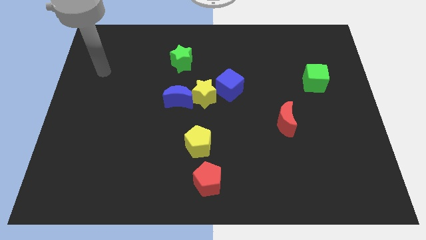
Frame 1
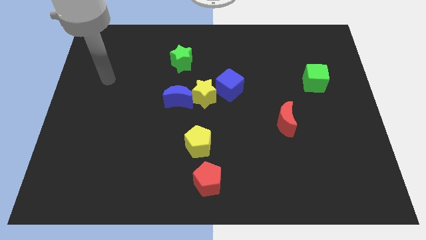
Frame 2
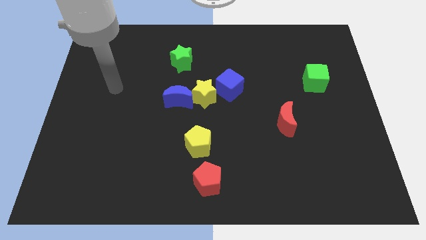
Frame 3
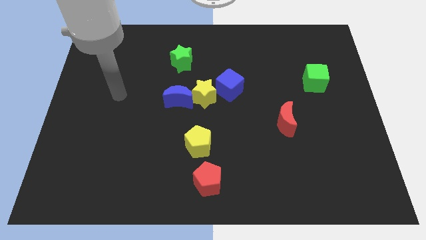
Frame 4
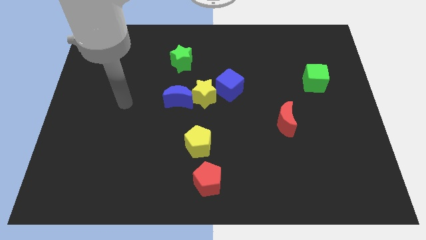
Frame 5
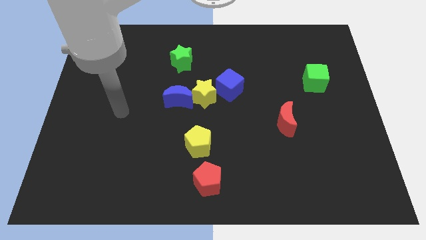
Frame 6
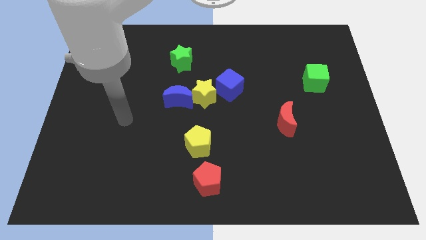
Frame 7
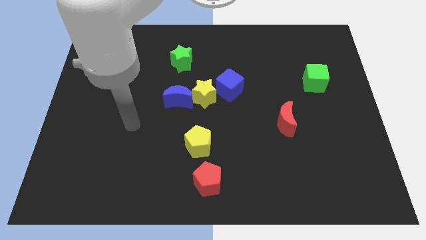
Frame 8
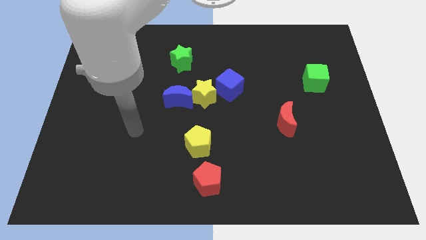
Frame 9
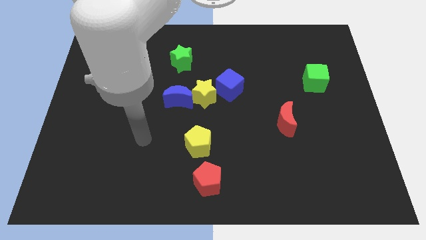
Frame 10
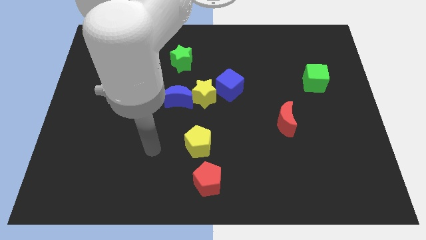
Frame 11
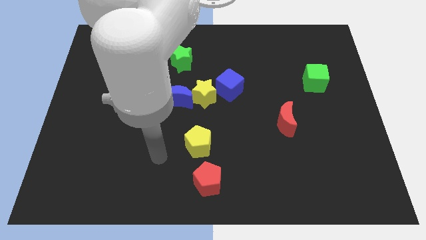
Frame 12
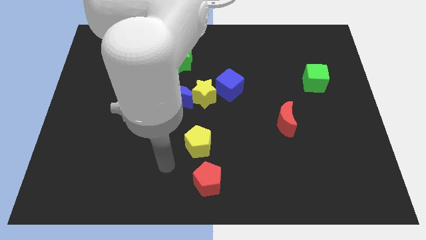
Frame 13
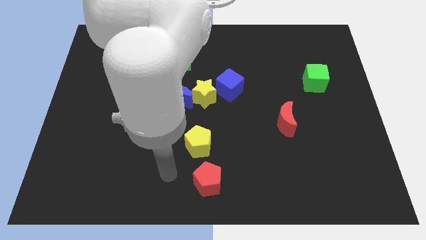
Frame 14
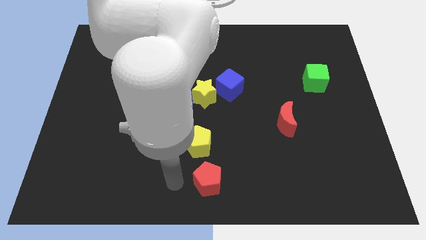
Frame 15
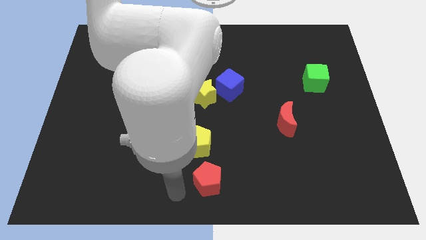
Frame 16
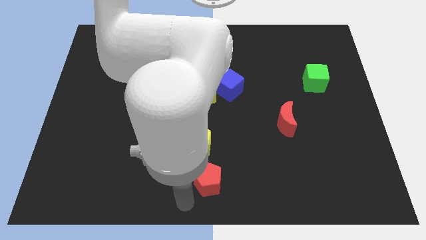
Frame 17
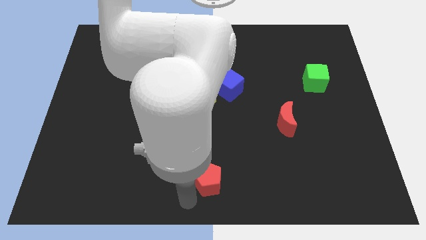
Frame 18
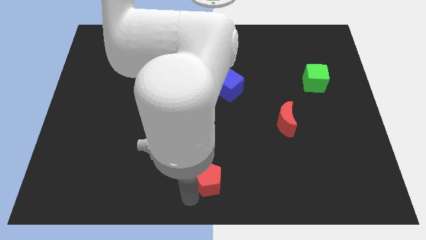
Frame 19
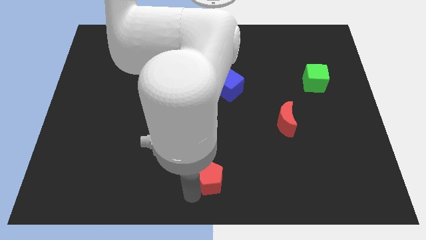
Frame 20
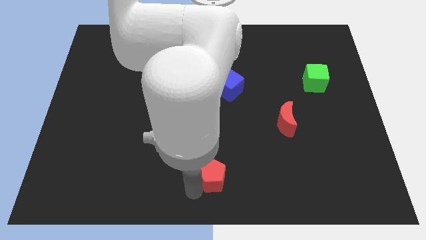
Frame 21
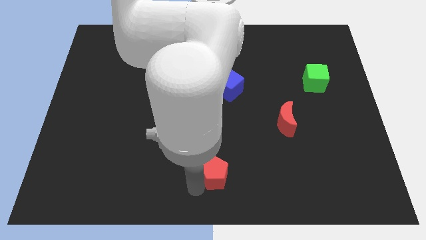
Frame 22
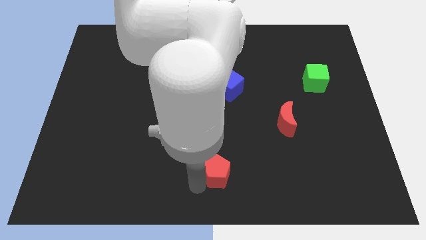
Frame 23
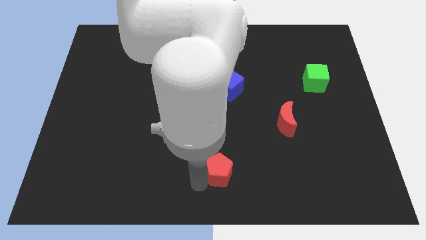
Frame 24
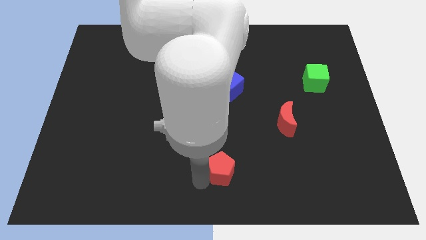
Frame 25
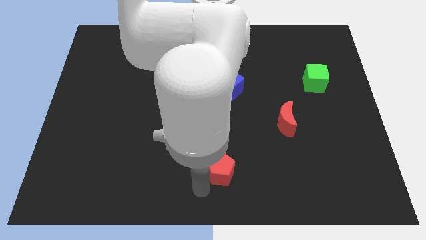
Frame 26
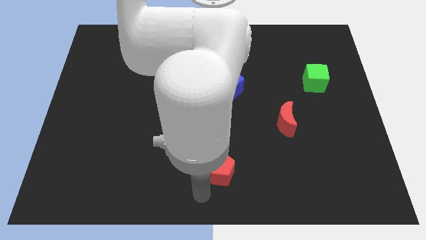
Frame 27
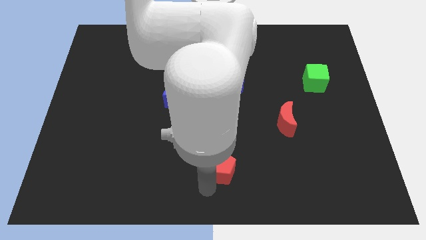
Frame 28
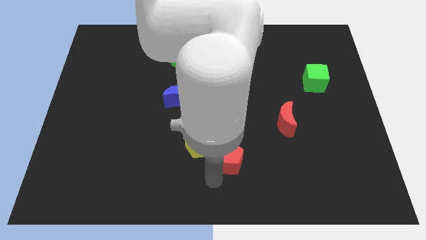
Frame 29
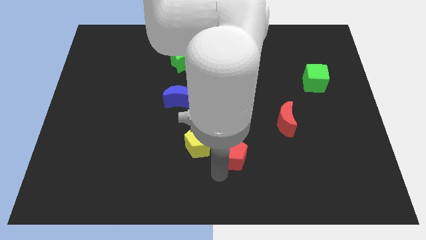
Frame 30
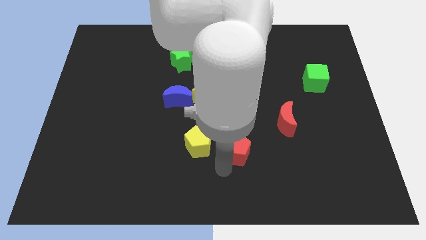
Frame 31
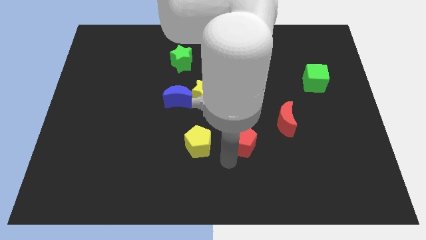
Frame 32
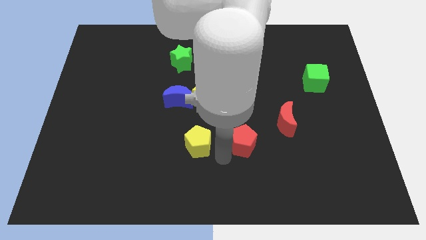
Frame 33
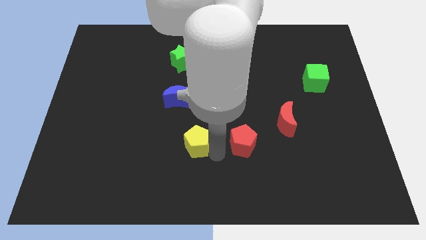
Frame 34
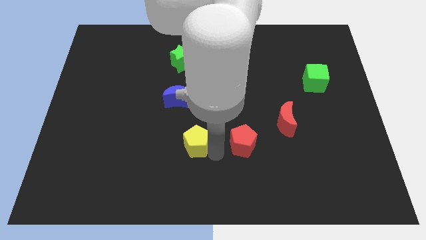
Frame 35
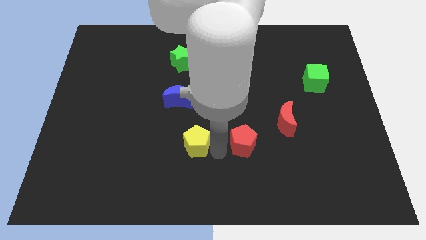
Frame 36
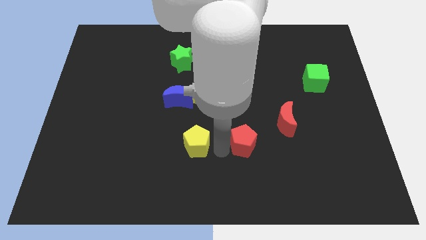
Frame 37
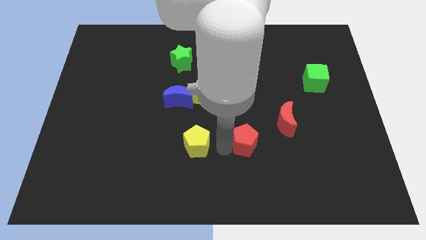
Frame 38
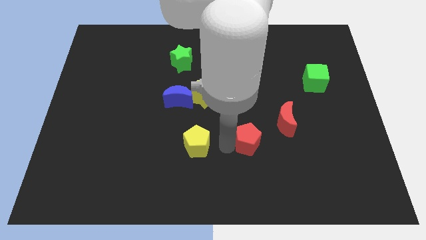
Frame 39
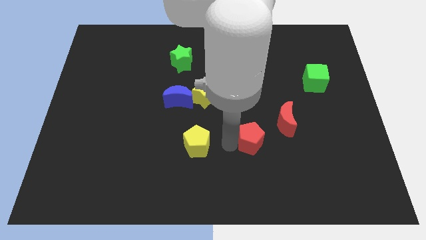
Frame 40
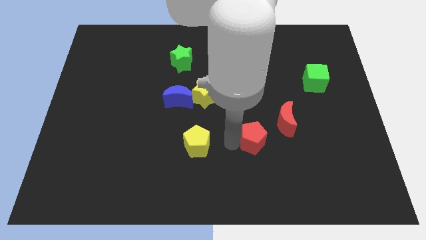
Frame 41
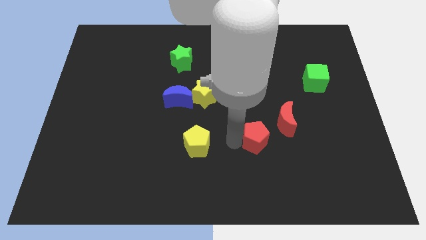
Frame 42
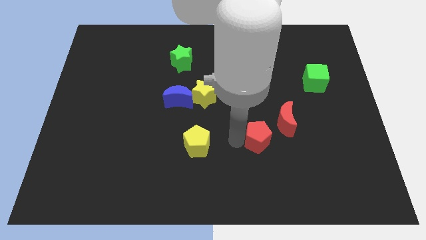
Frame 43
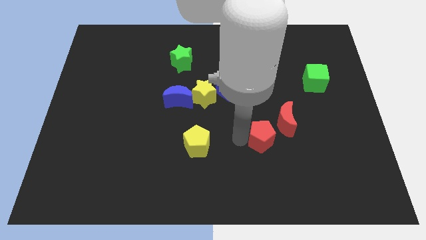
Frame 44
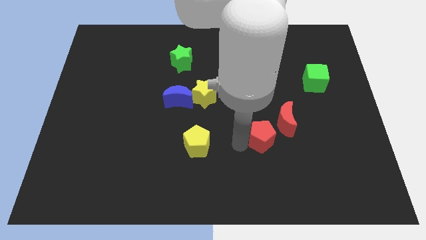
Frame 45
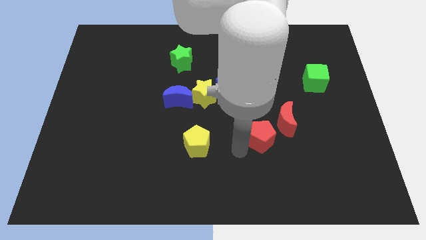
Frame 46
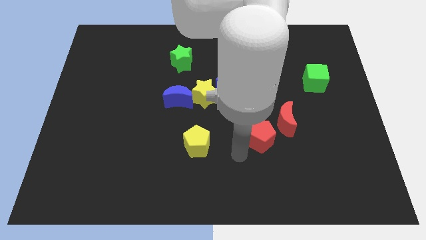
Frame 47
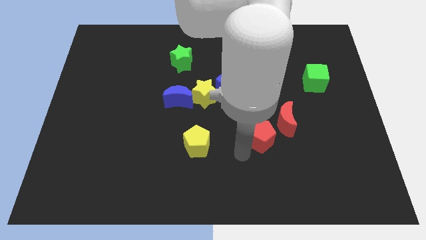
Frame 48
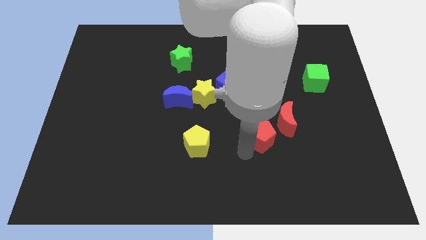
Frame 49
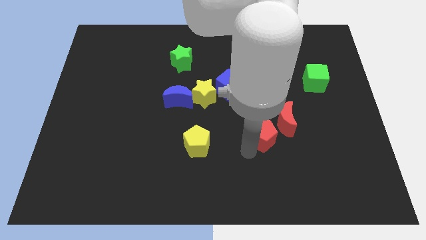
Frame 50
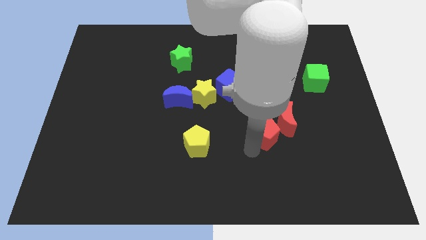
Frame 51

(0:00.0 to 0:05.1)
push the red pentagon to the red moon

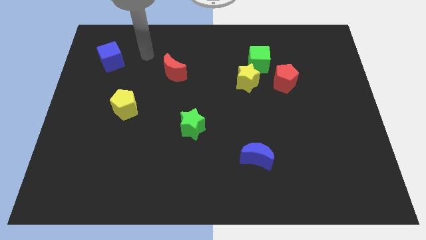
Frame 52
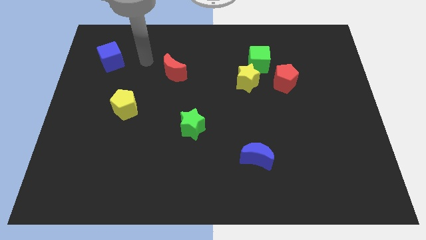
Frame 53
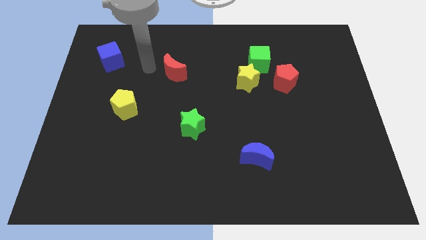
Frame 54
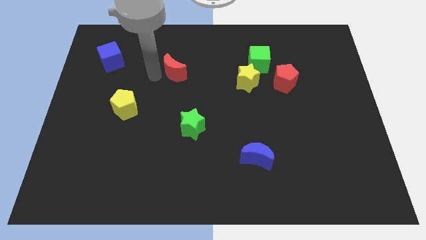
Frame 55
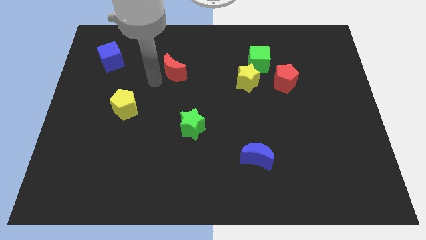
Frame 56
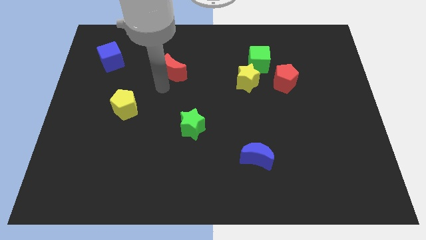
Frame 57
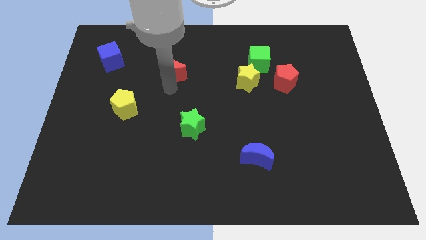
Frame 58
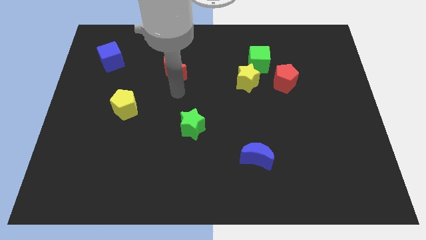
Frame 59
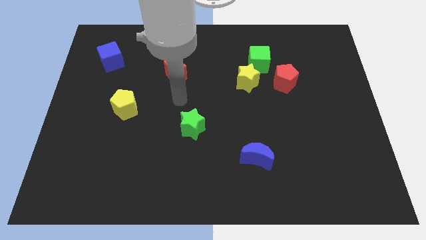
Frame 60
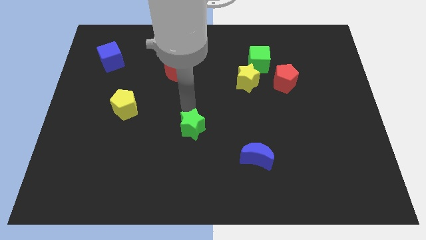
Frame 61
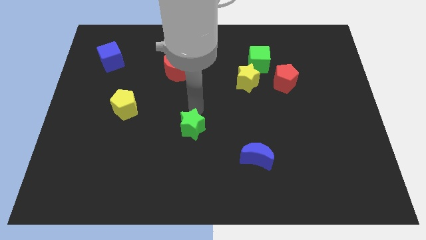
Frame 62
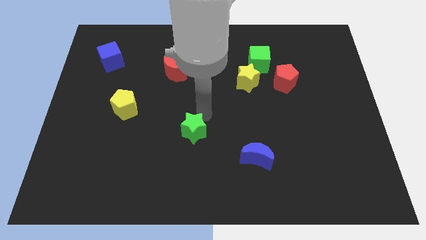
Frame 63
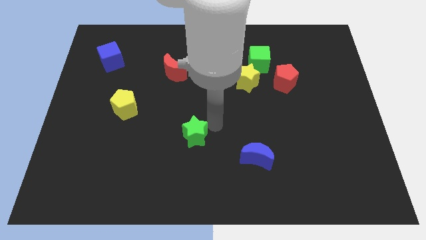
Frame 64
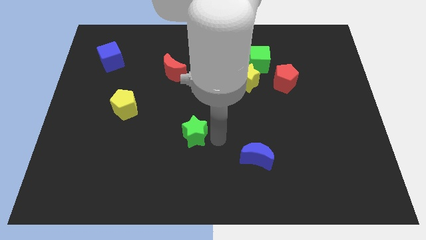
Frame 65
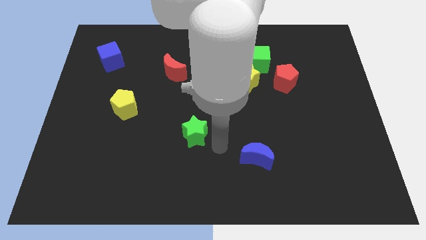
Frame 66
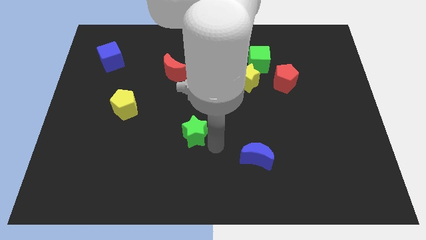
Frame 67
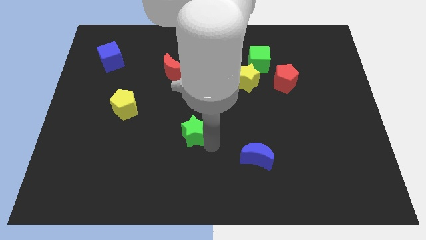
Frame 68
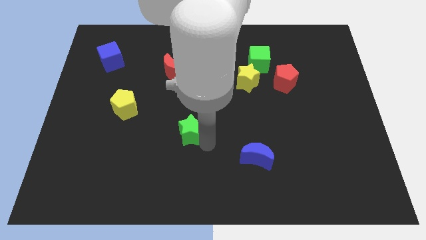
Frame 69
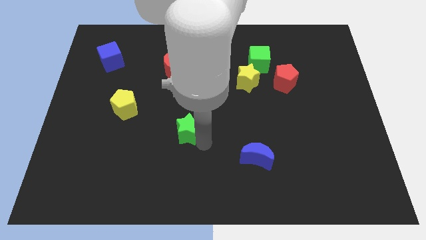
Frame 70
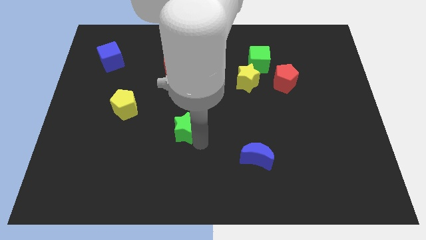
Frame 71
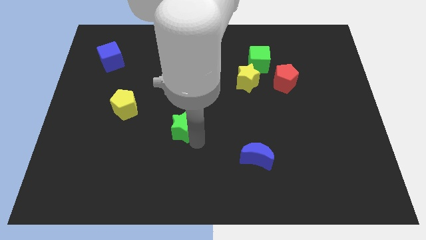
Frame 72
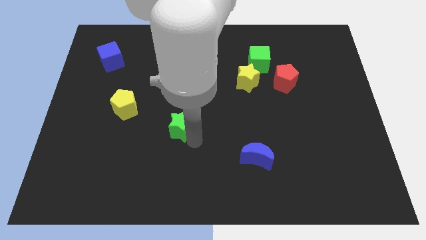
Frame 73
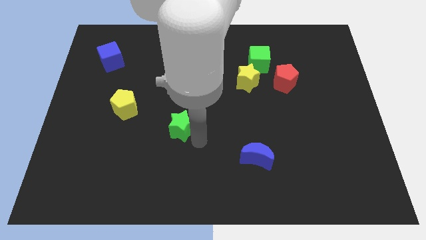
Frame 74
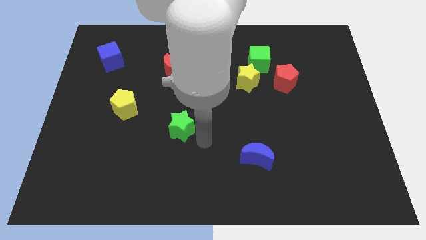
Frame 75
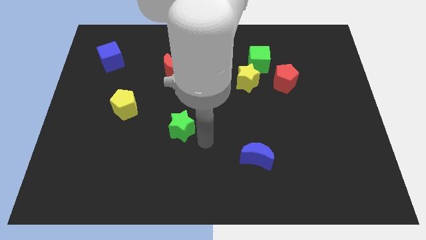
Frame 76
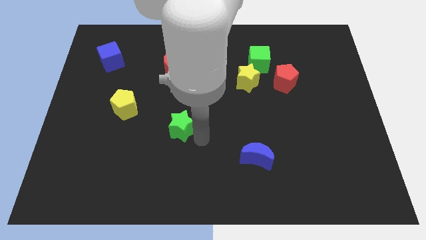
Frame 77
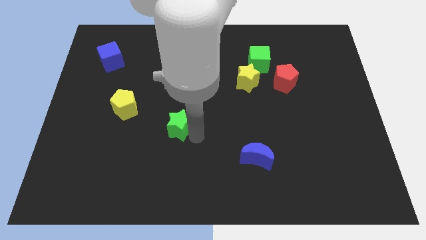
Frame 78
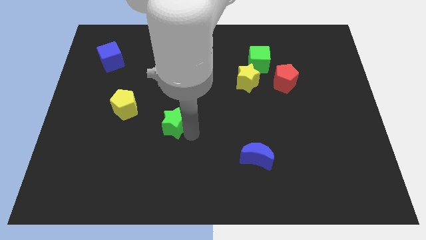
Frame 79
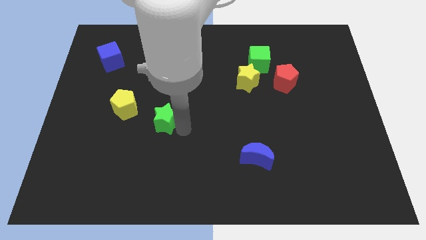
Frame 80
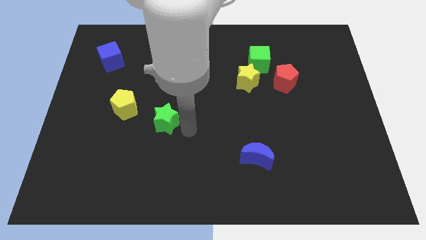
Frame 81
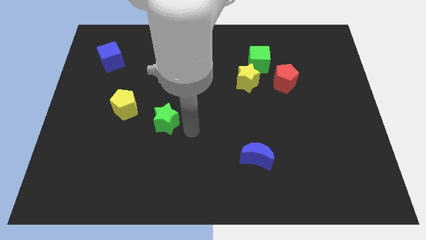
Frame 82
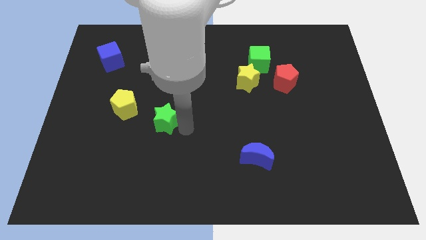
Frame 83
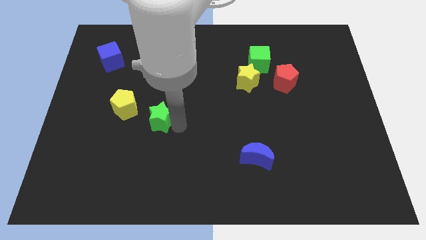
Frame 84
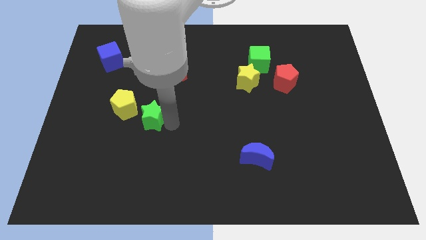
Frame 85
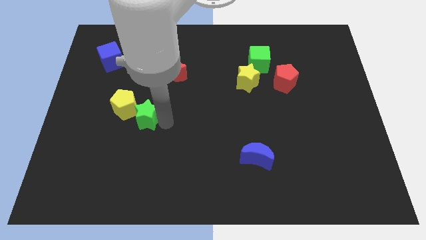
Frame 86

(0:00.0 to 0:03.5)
slide the green star to the yellow pentagon
